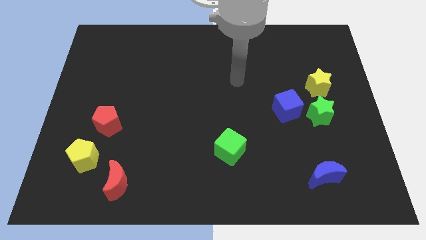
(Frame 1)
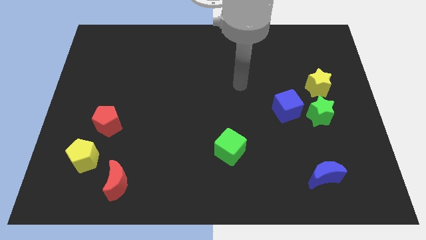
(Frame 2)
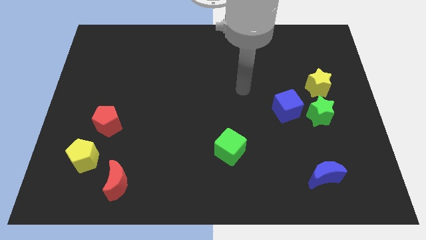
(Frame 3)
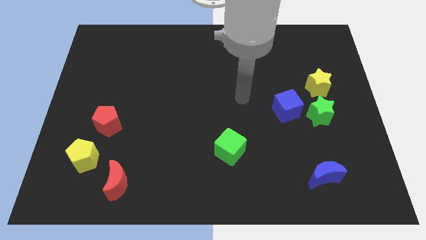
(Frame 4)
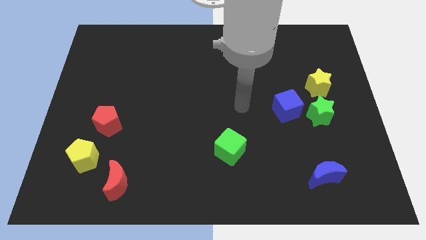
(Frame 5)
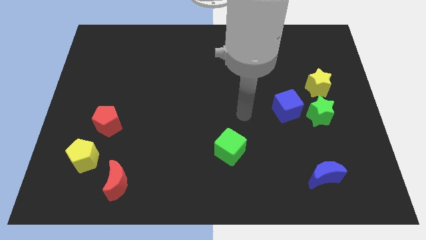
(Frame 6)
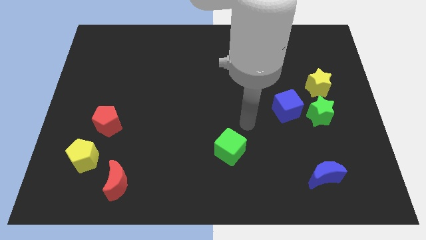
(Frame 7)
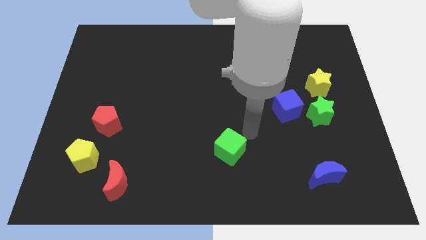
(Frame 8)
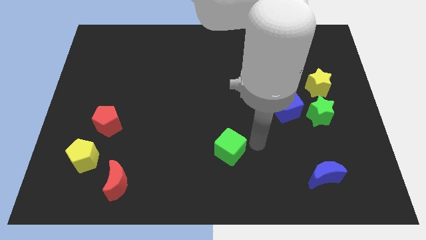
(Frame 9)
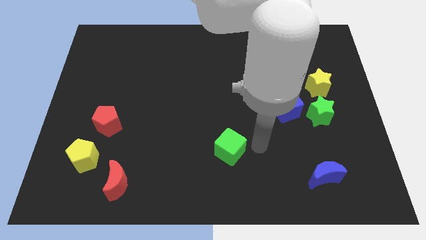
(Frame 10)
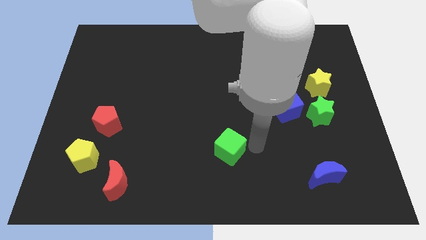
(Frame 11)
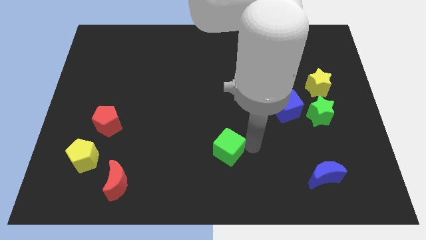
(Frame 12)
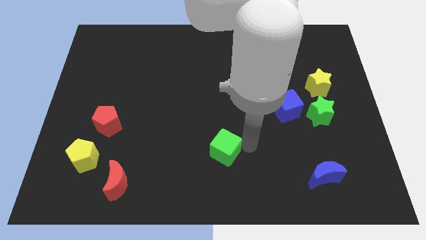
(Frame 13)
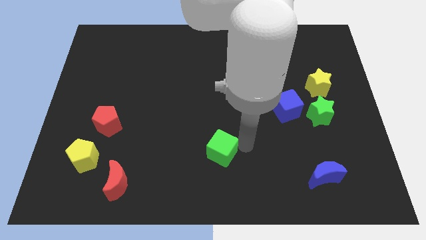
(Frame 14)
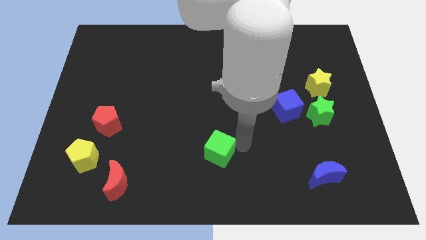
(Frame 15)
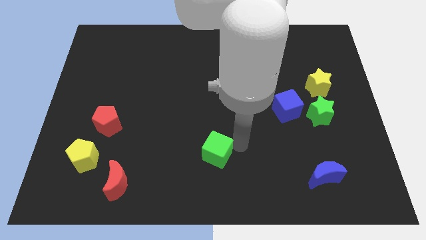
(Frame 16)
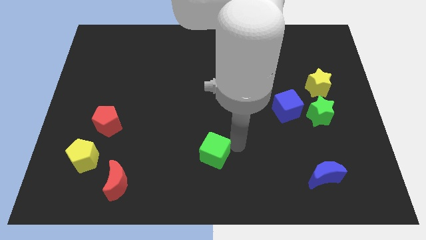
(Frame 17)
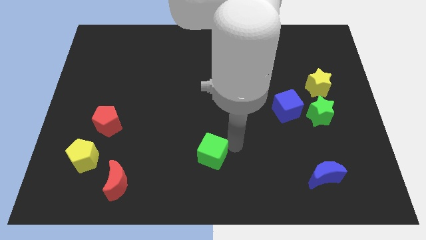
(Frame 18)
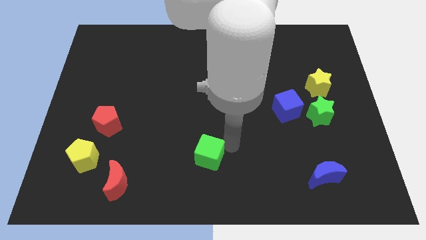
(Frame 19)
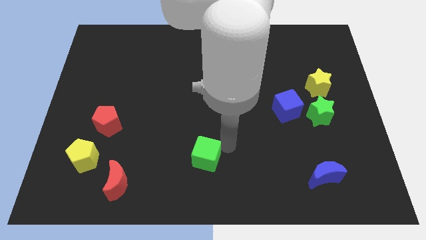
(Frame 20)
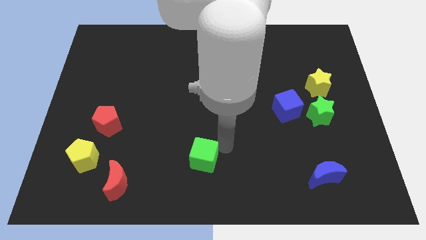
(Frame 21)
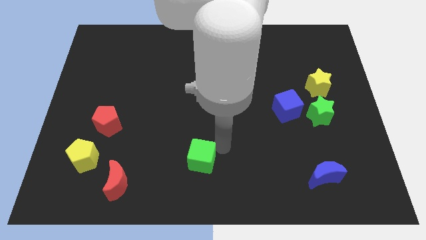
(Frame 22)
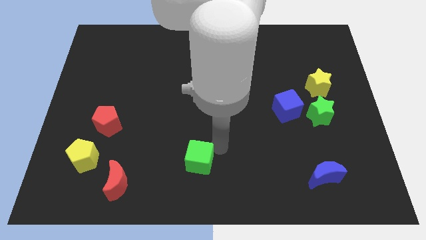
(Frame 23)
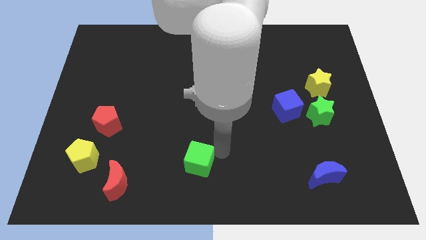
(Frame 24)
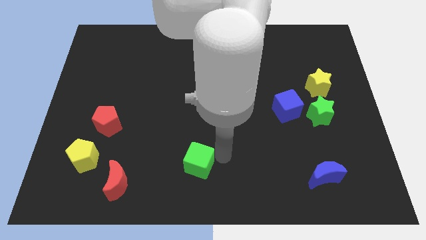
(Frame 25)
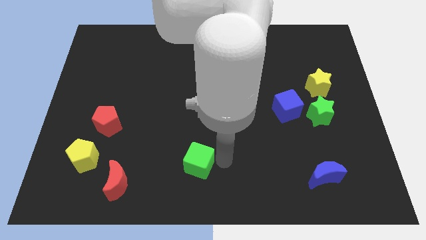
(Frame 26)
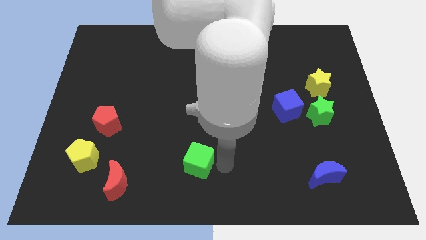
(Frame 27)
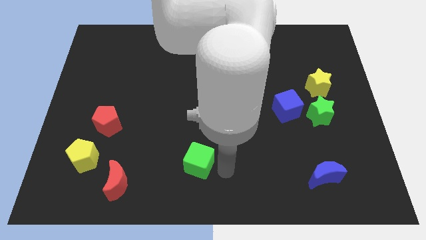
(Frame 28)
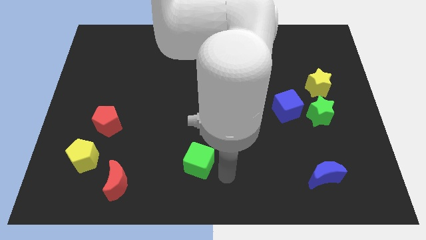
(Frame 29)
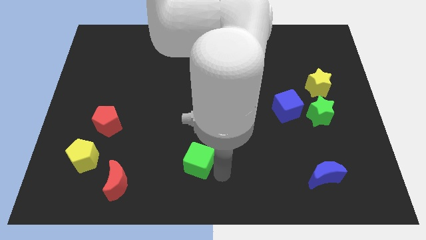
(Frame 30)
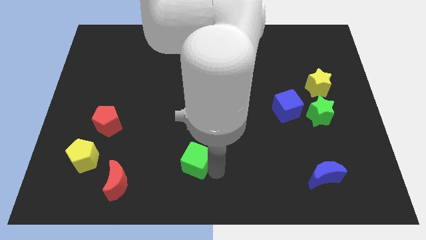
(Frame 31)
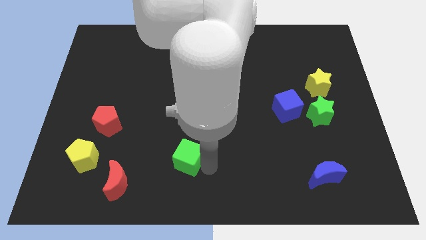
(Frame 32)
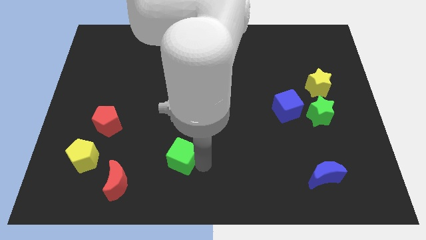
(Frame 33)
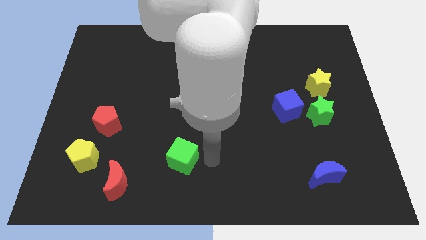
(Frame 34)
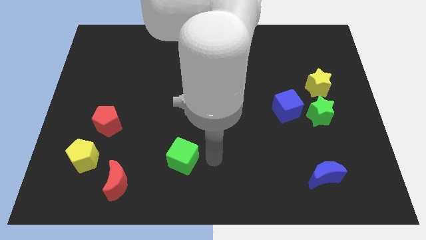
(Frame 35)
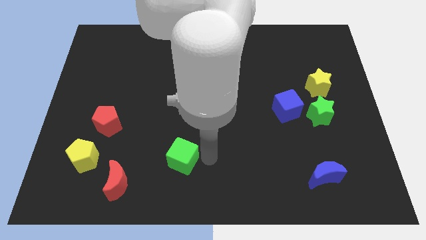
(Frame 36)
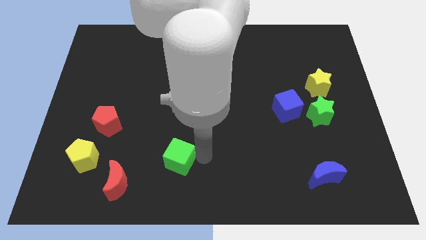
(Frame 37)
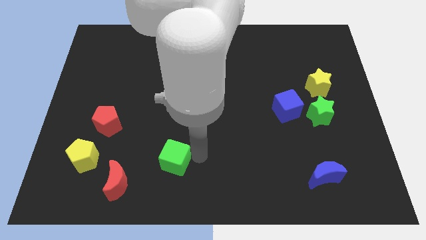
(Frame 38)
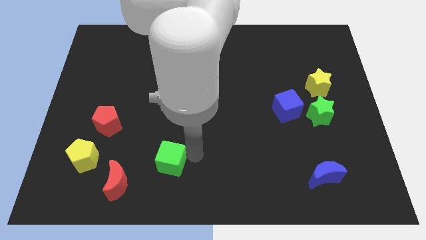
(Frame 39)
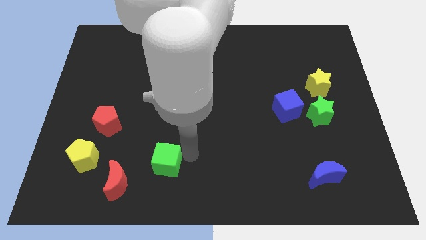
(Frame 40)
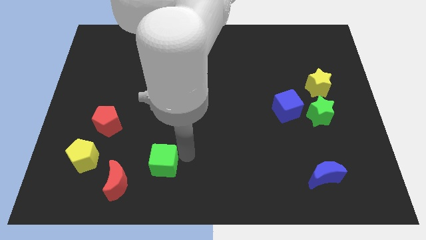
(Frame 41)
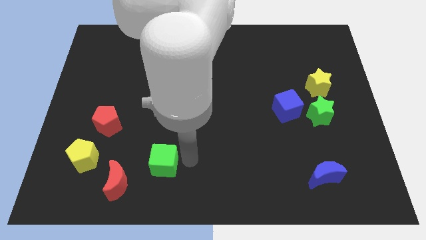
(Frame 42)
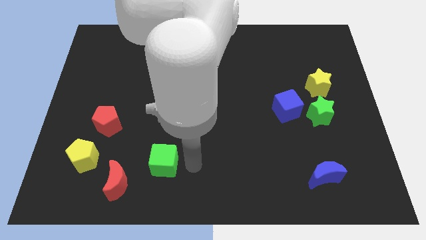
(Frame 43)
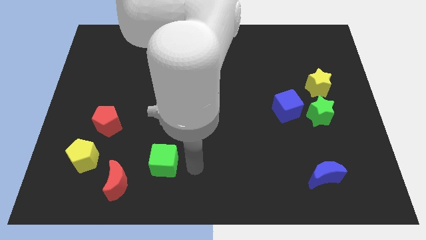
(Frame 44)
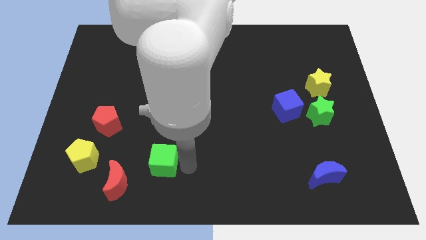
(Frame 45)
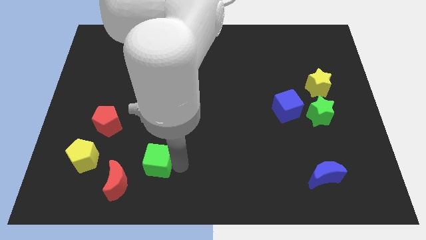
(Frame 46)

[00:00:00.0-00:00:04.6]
put the green cube just right of the yellow pentagon

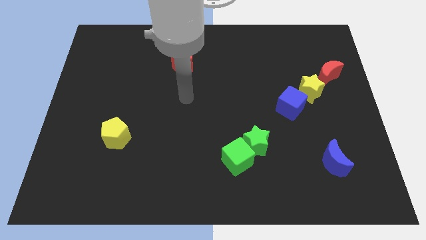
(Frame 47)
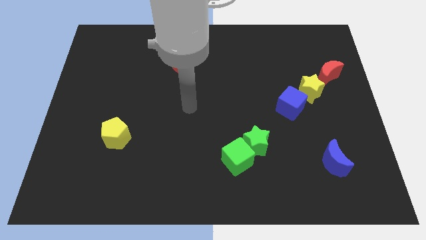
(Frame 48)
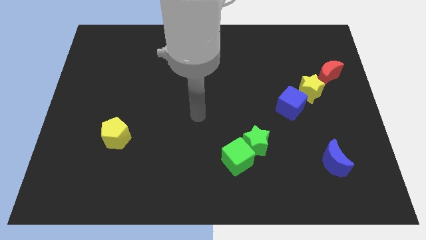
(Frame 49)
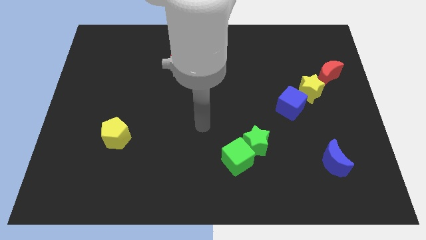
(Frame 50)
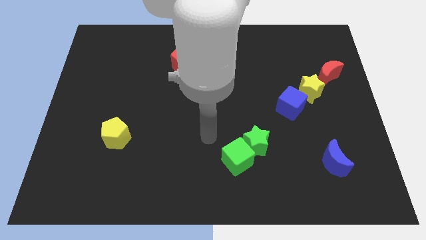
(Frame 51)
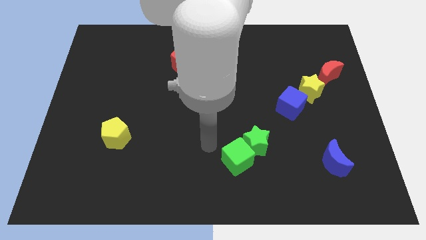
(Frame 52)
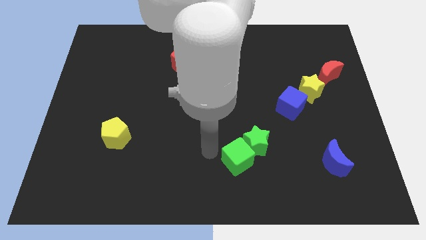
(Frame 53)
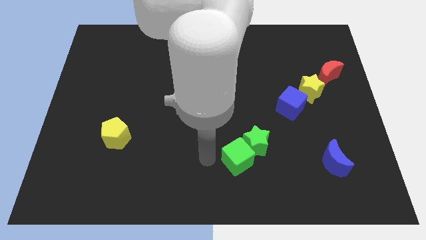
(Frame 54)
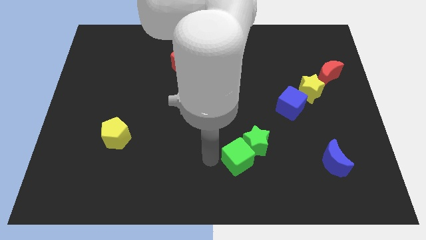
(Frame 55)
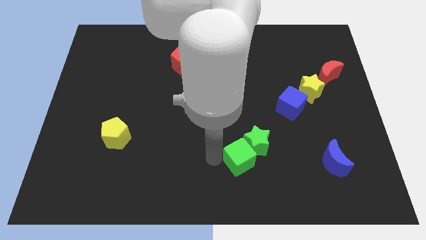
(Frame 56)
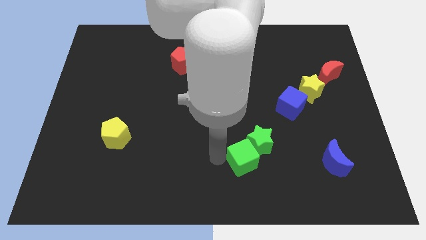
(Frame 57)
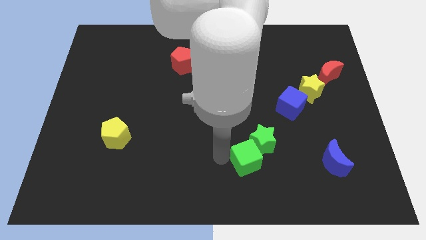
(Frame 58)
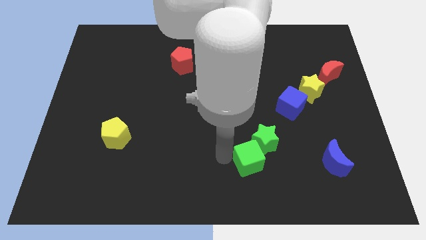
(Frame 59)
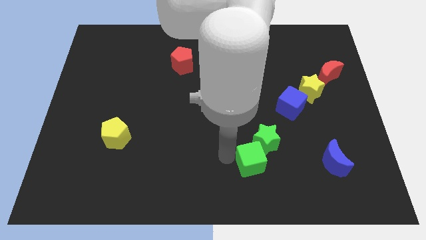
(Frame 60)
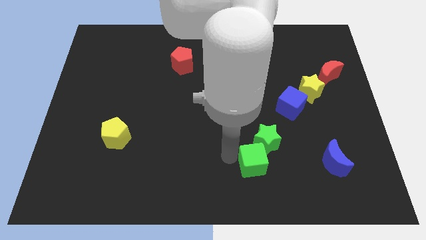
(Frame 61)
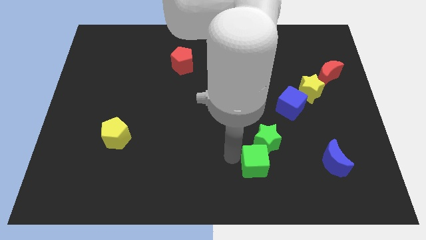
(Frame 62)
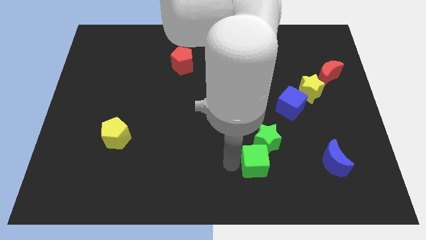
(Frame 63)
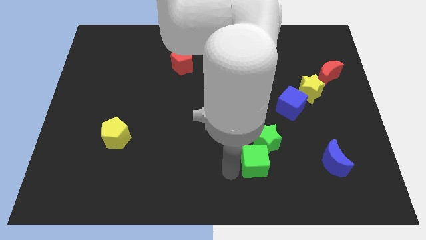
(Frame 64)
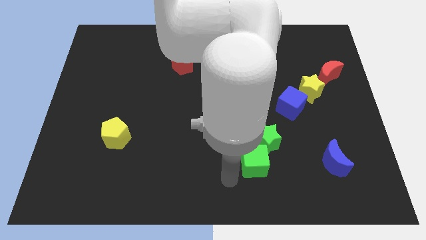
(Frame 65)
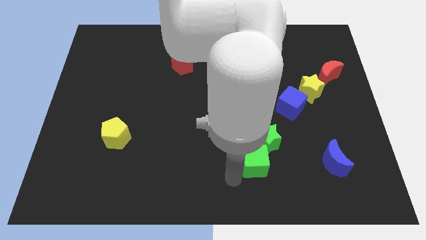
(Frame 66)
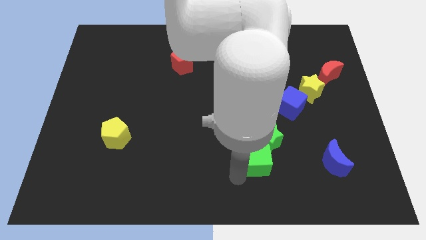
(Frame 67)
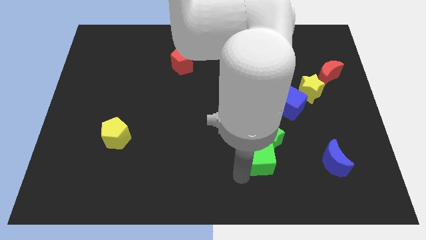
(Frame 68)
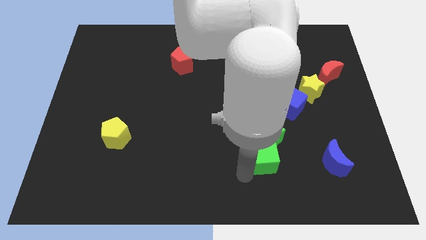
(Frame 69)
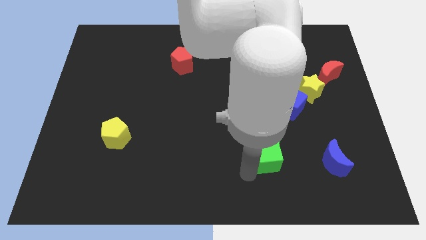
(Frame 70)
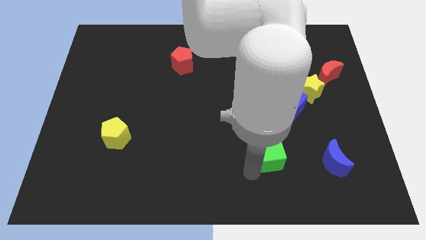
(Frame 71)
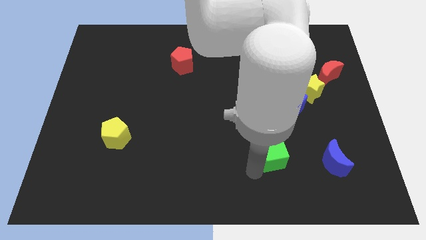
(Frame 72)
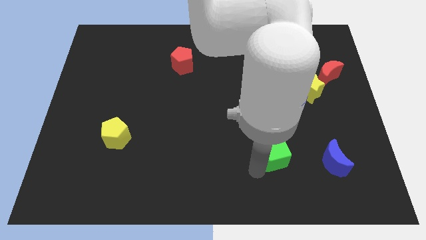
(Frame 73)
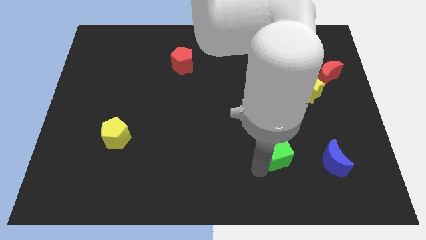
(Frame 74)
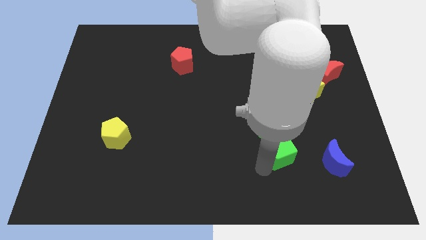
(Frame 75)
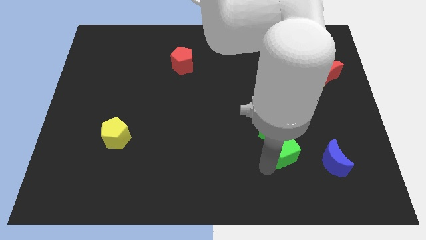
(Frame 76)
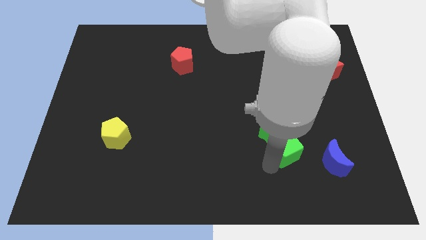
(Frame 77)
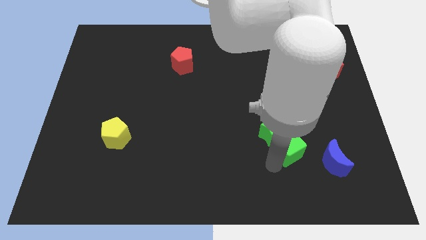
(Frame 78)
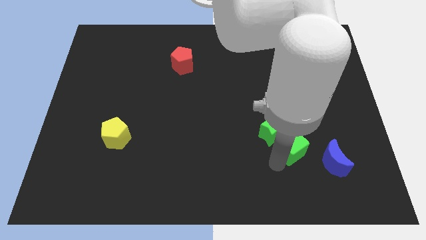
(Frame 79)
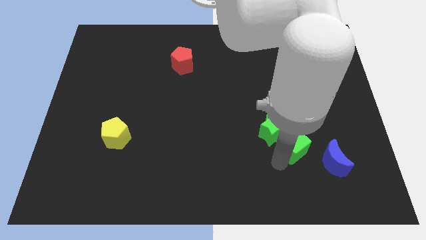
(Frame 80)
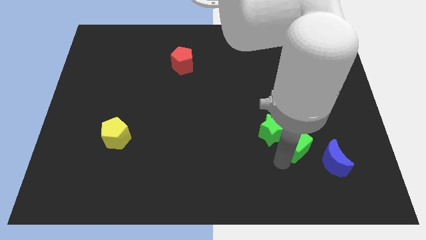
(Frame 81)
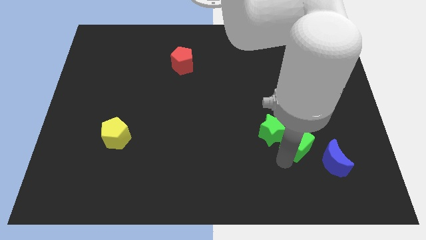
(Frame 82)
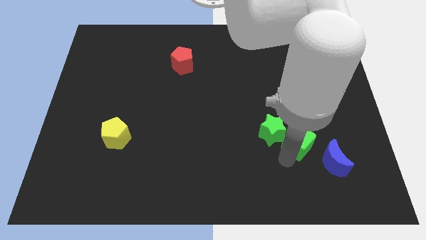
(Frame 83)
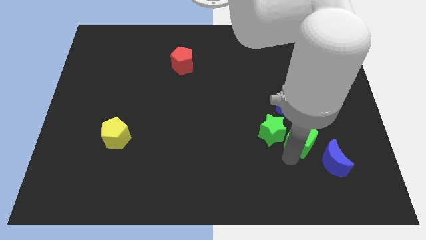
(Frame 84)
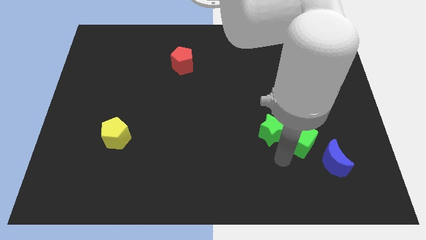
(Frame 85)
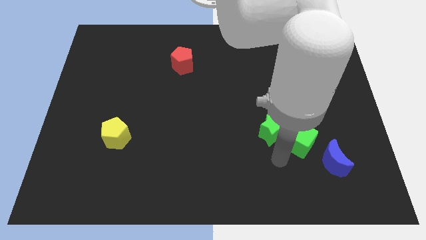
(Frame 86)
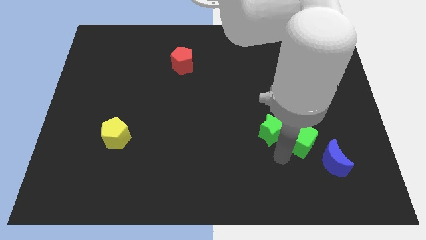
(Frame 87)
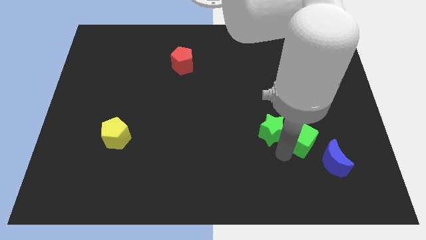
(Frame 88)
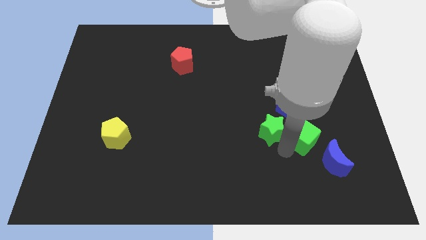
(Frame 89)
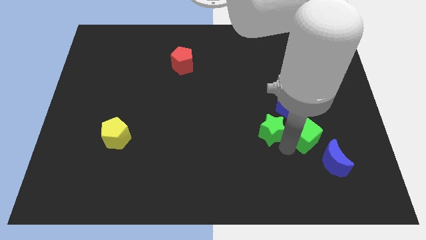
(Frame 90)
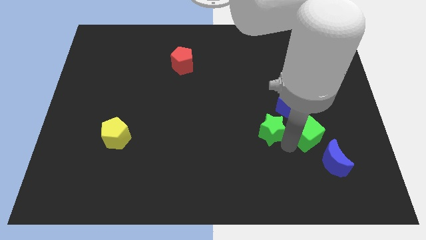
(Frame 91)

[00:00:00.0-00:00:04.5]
push the green cube to the top of the blue moon
